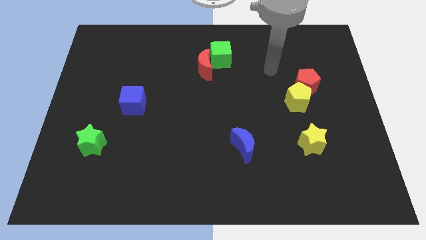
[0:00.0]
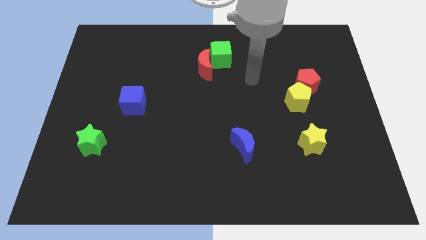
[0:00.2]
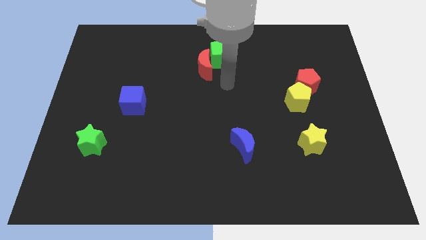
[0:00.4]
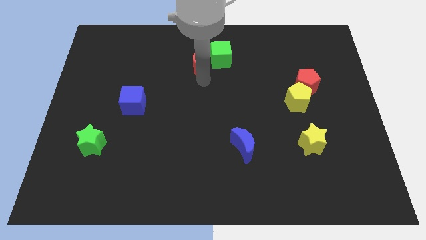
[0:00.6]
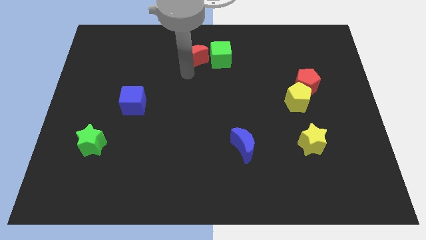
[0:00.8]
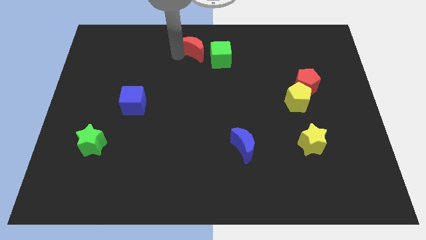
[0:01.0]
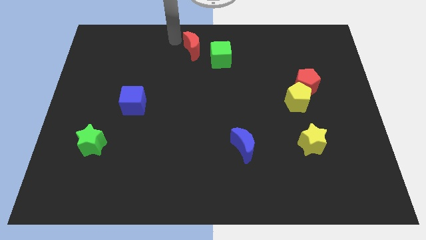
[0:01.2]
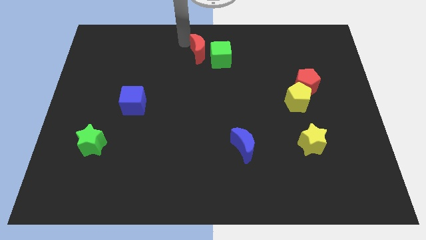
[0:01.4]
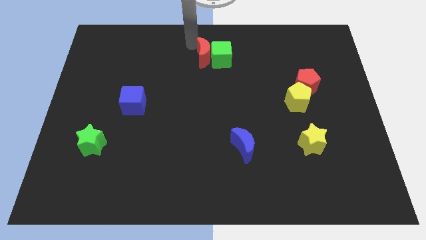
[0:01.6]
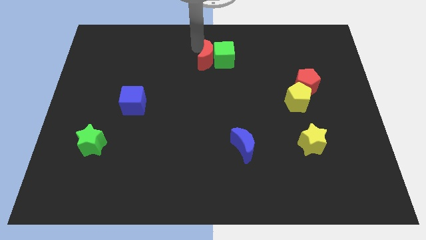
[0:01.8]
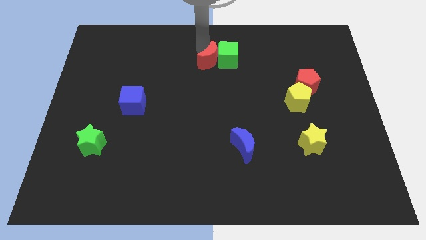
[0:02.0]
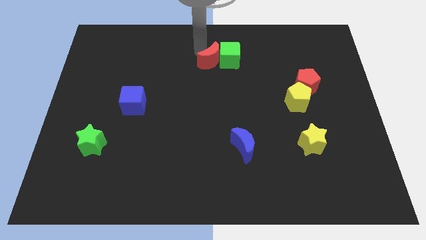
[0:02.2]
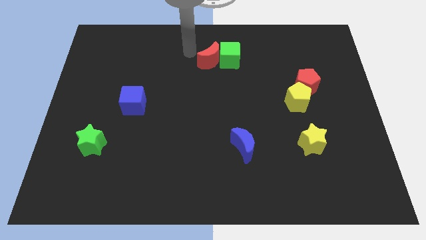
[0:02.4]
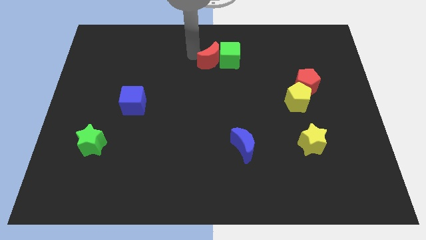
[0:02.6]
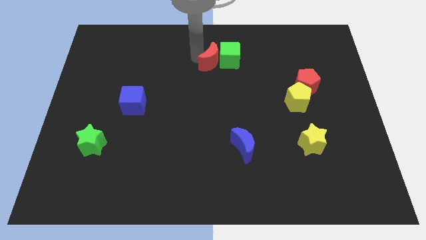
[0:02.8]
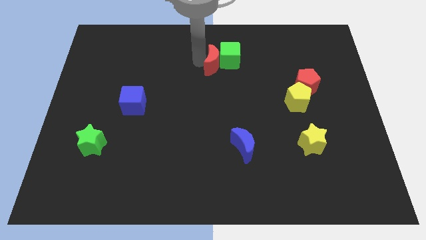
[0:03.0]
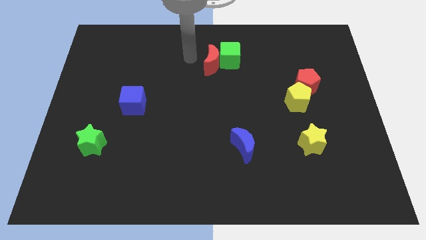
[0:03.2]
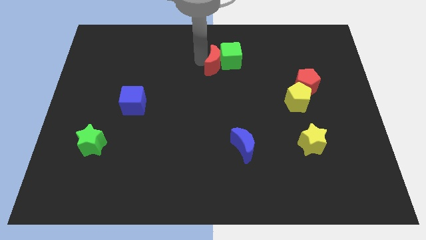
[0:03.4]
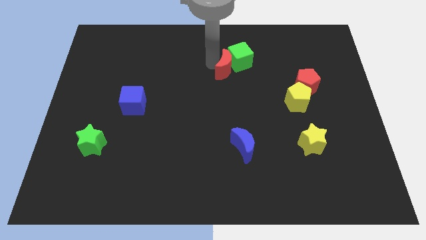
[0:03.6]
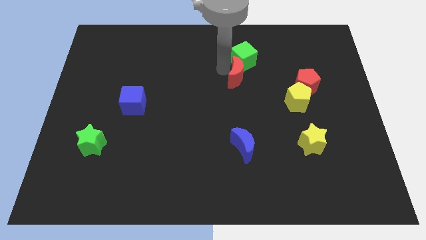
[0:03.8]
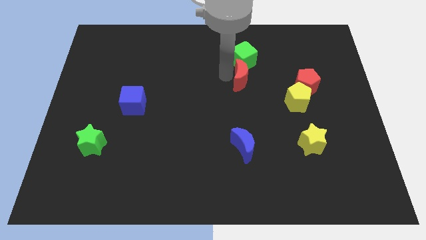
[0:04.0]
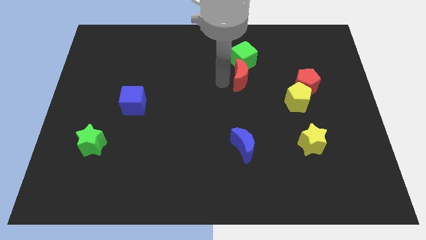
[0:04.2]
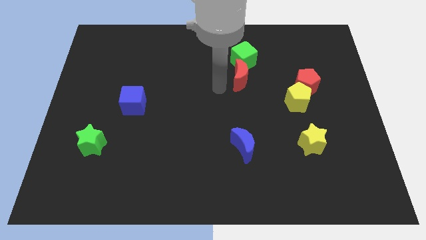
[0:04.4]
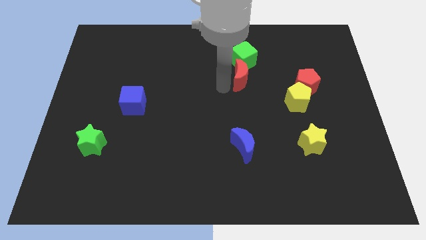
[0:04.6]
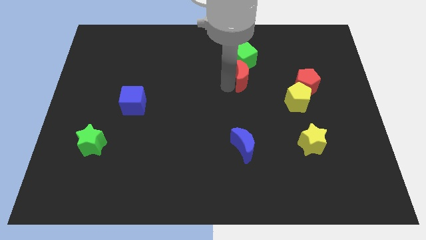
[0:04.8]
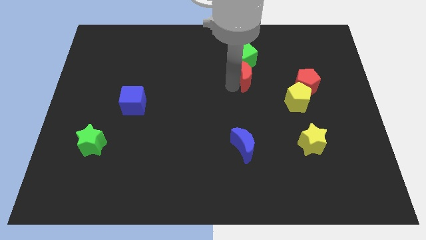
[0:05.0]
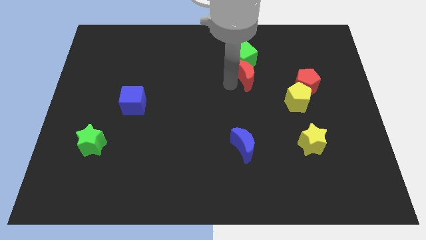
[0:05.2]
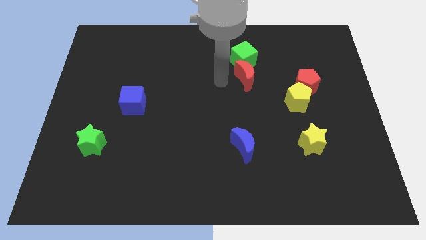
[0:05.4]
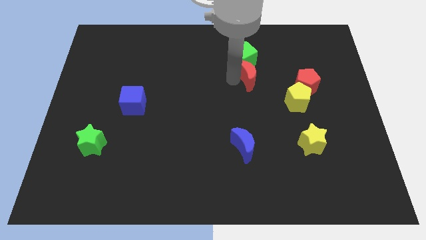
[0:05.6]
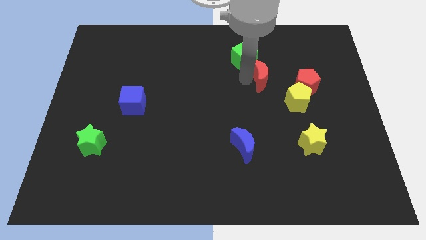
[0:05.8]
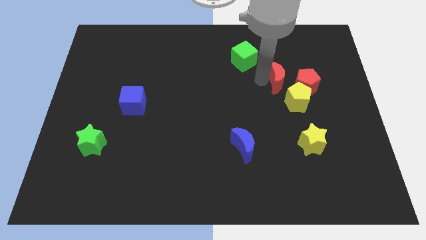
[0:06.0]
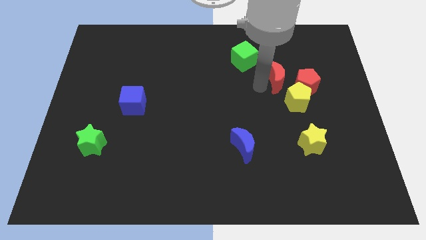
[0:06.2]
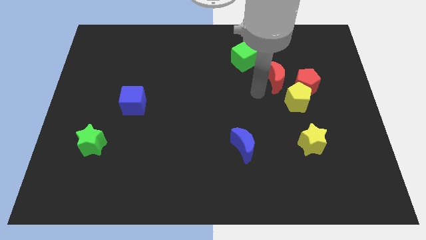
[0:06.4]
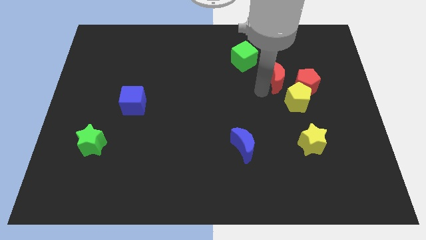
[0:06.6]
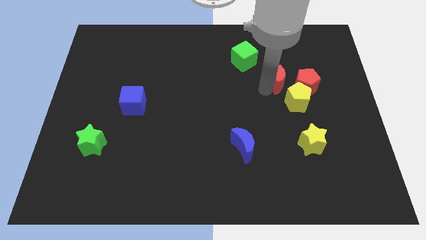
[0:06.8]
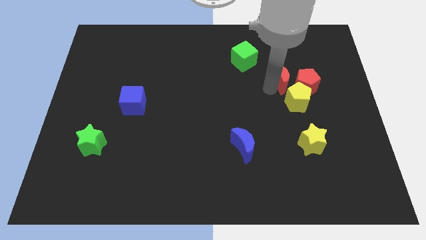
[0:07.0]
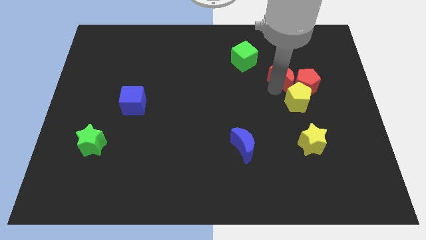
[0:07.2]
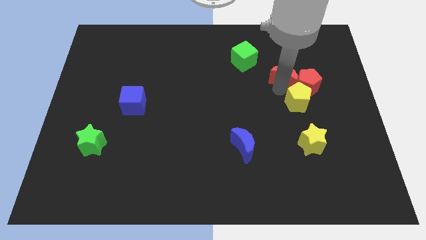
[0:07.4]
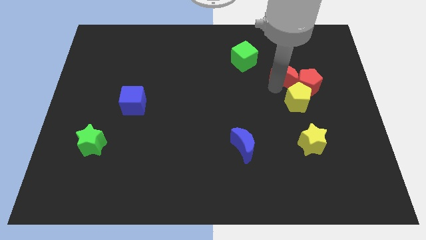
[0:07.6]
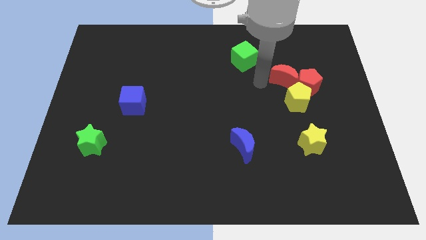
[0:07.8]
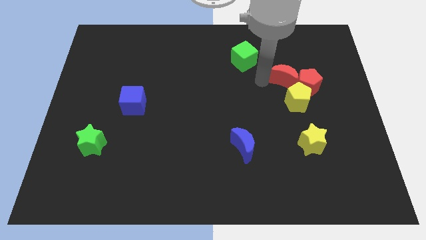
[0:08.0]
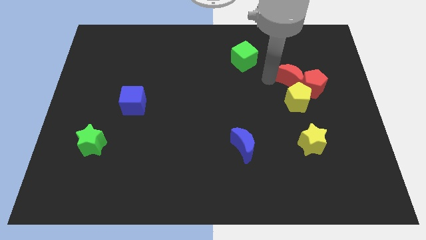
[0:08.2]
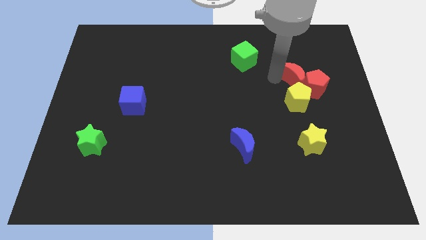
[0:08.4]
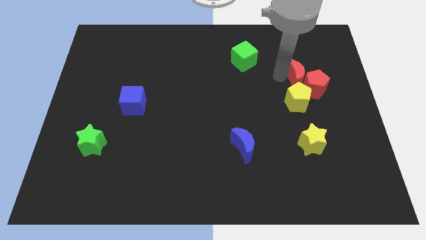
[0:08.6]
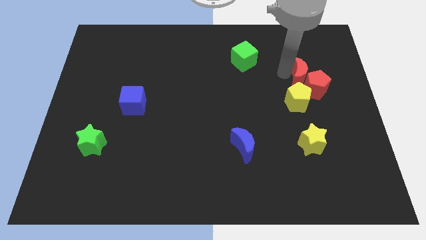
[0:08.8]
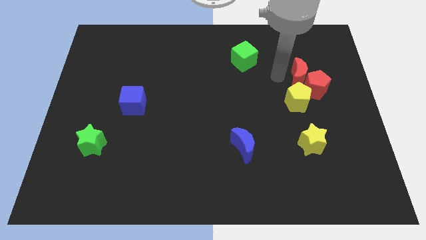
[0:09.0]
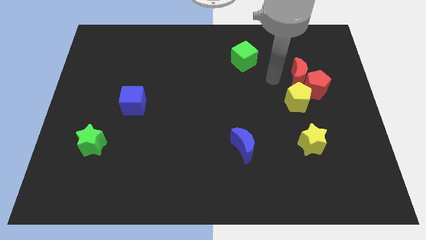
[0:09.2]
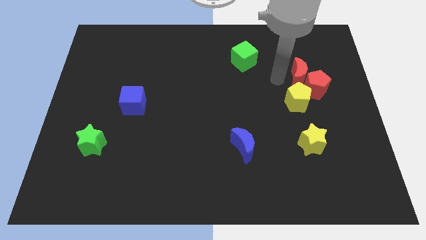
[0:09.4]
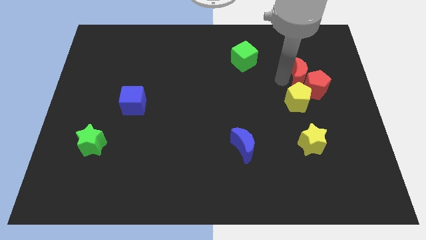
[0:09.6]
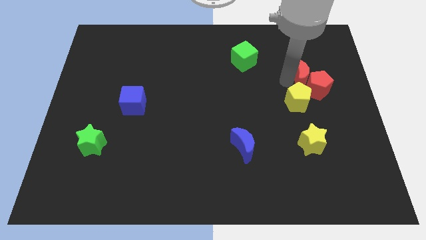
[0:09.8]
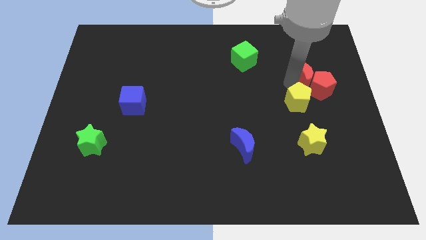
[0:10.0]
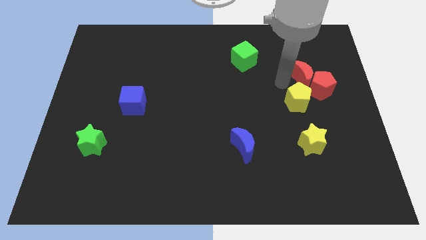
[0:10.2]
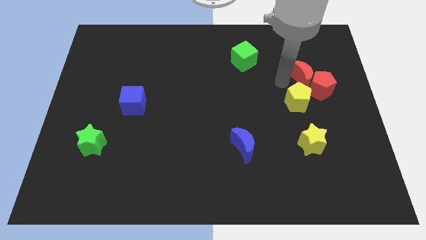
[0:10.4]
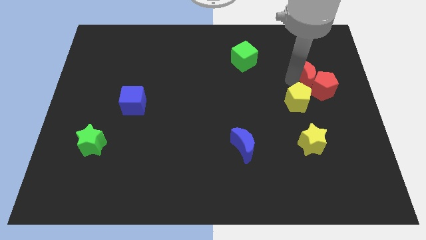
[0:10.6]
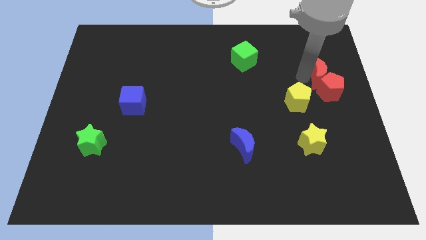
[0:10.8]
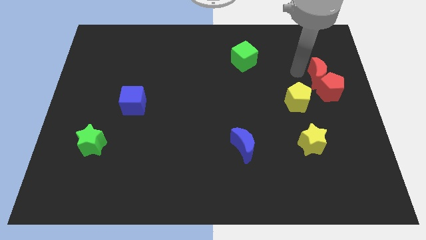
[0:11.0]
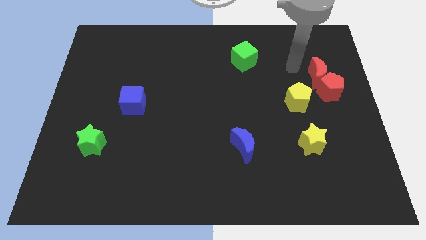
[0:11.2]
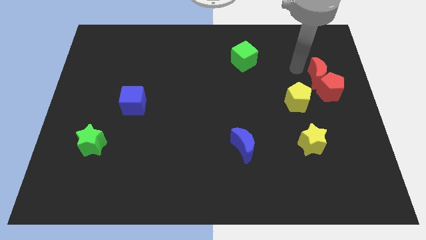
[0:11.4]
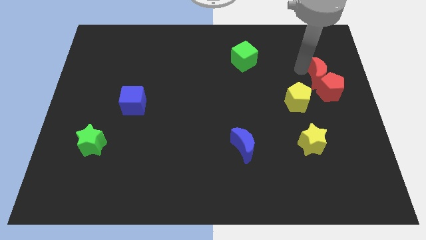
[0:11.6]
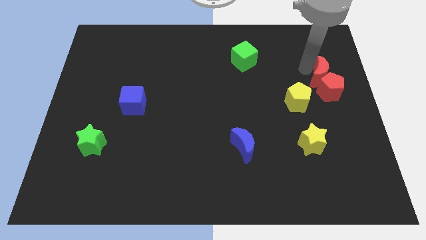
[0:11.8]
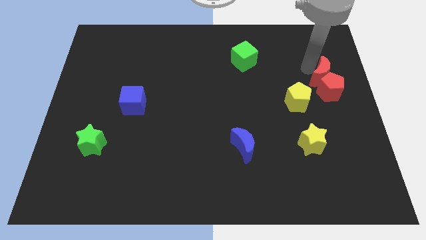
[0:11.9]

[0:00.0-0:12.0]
put the red moon to the center right
